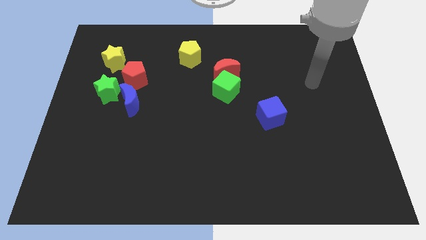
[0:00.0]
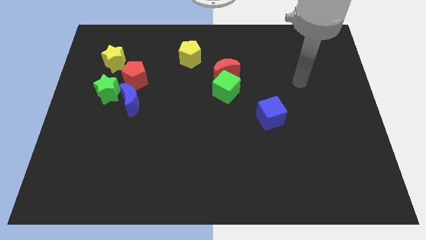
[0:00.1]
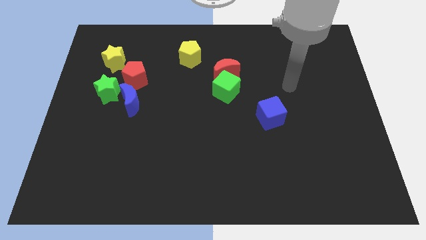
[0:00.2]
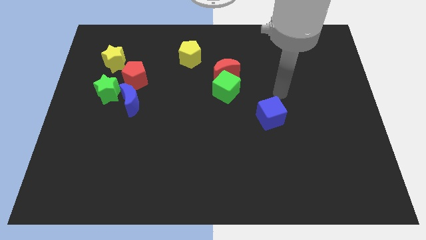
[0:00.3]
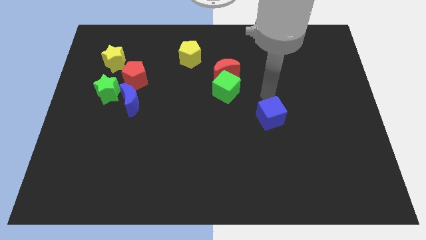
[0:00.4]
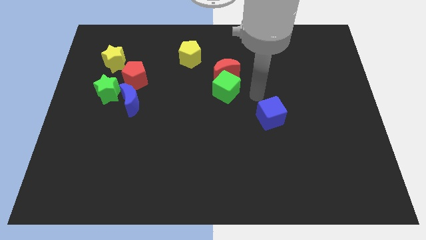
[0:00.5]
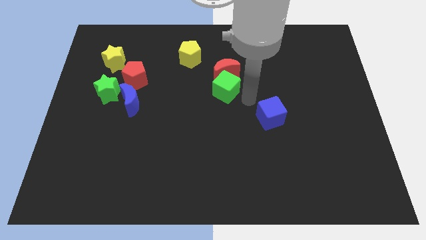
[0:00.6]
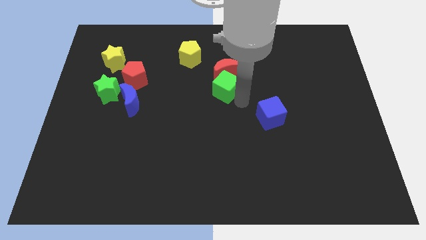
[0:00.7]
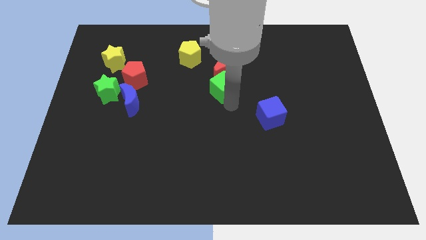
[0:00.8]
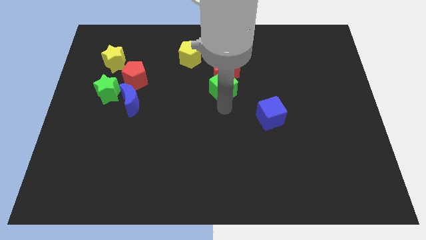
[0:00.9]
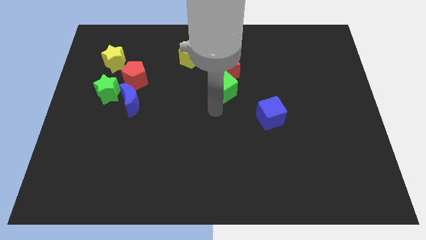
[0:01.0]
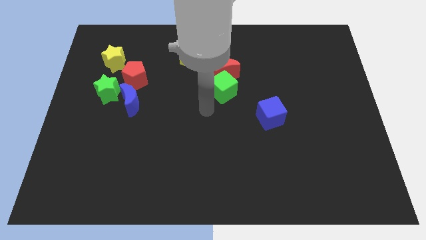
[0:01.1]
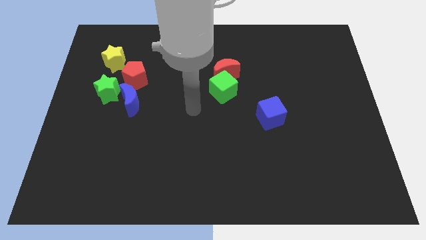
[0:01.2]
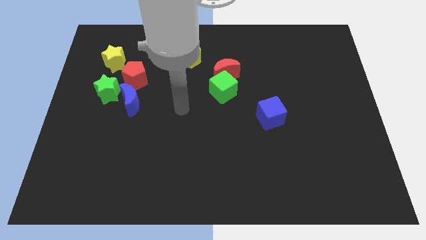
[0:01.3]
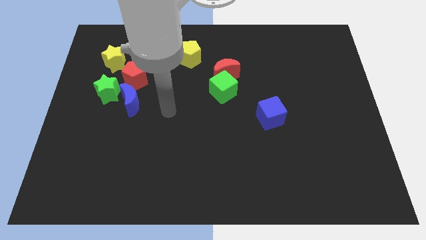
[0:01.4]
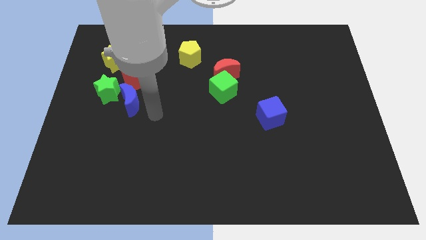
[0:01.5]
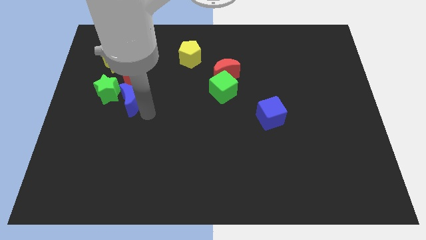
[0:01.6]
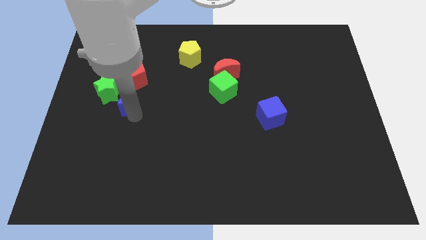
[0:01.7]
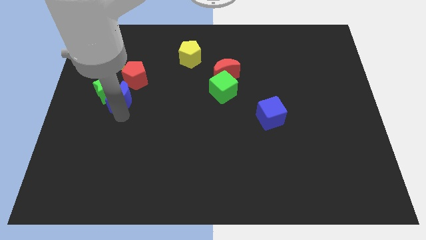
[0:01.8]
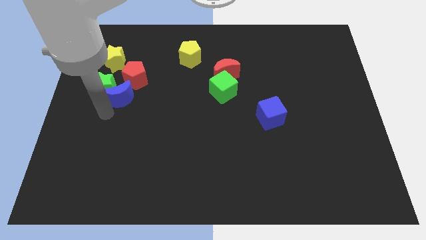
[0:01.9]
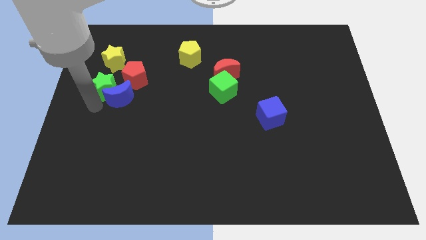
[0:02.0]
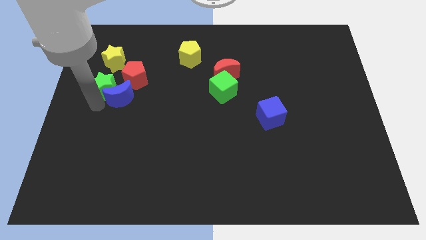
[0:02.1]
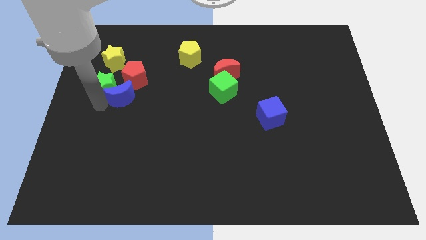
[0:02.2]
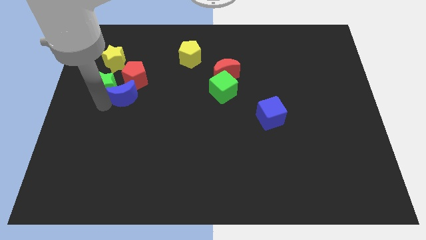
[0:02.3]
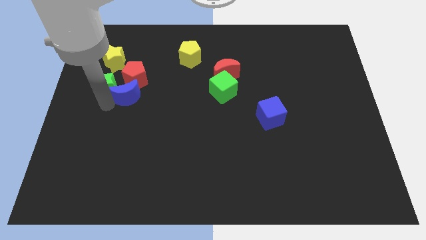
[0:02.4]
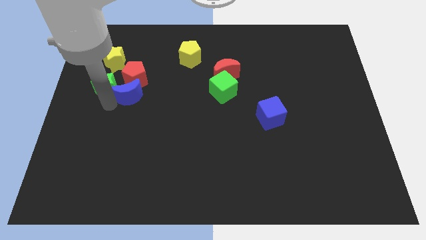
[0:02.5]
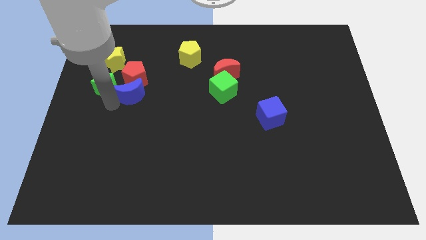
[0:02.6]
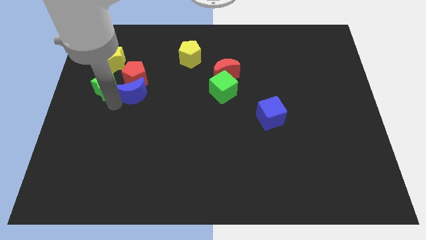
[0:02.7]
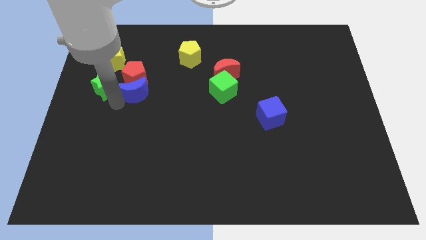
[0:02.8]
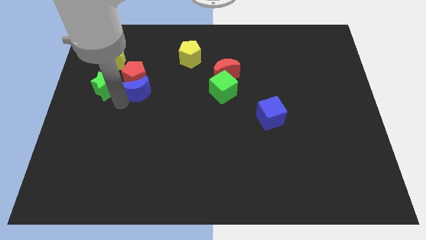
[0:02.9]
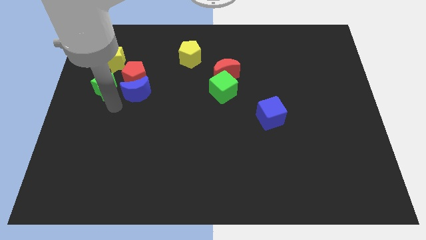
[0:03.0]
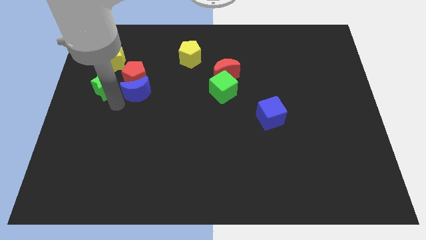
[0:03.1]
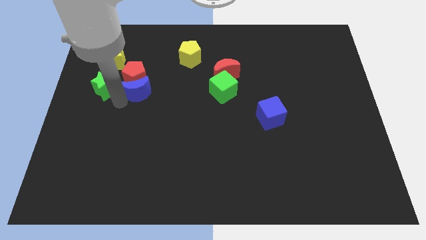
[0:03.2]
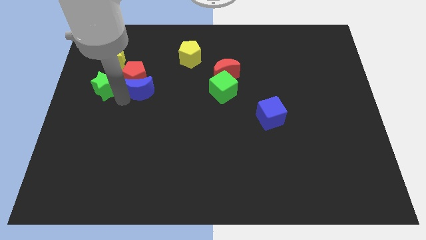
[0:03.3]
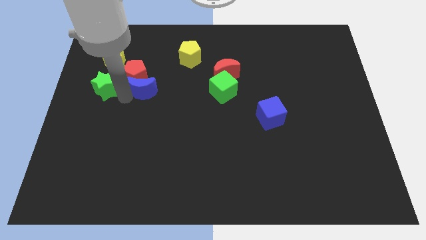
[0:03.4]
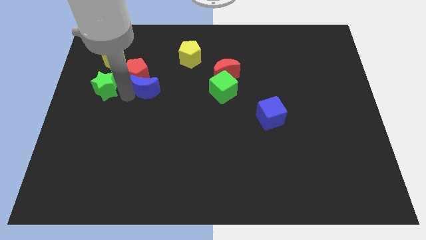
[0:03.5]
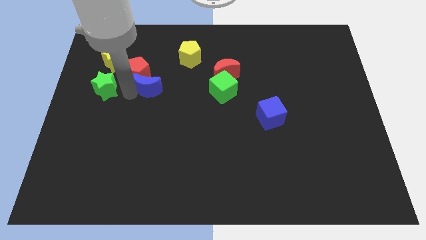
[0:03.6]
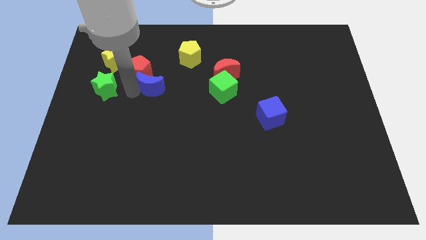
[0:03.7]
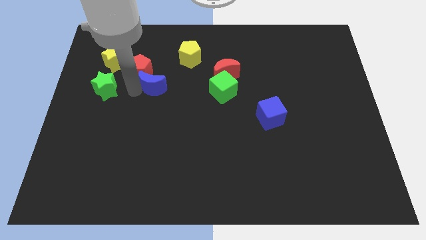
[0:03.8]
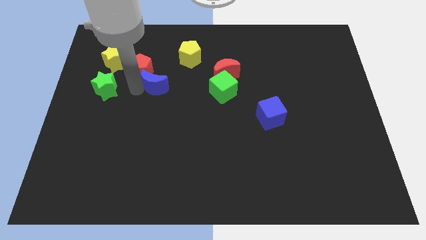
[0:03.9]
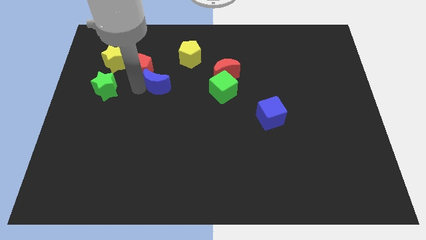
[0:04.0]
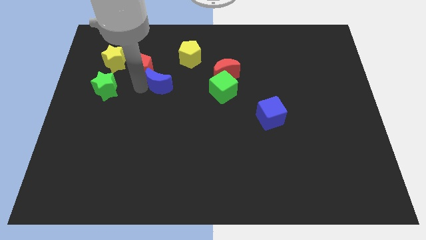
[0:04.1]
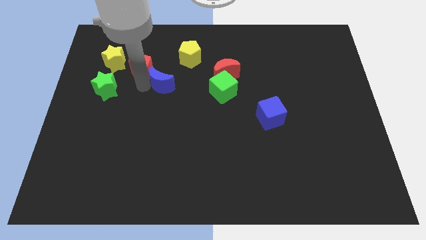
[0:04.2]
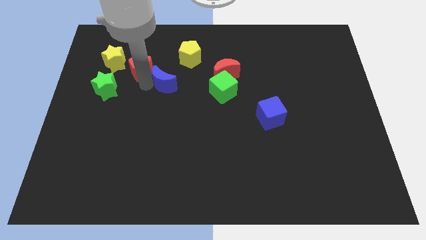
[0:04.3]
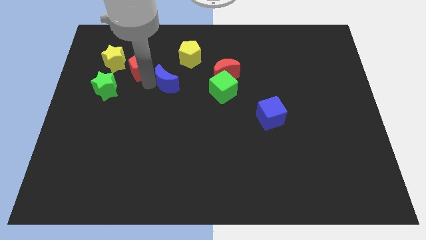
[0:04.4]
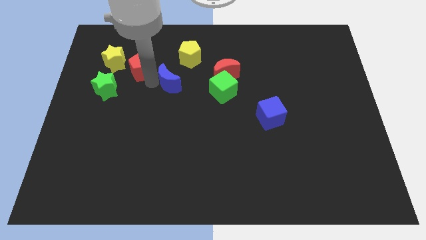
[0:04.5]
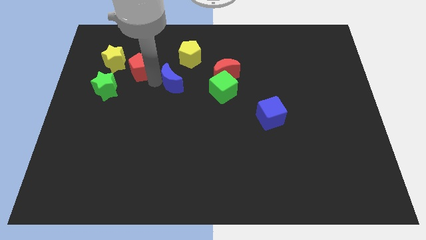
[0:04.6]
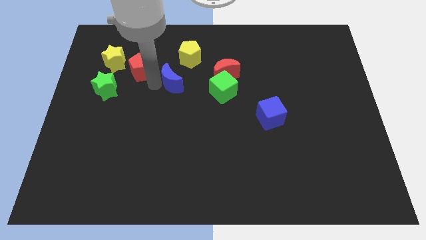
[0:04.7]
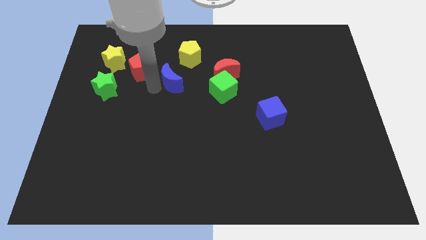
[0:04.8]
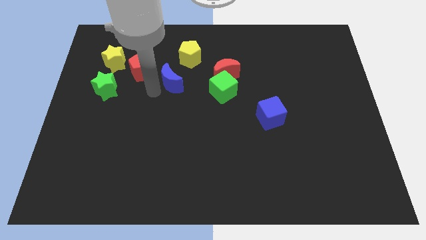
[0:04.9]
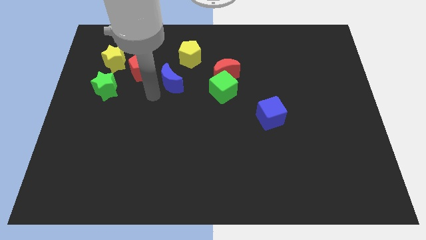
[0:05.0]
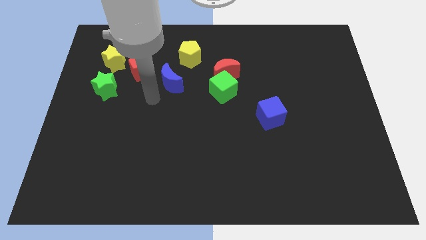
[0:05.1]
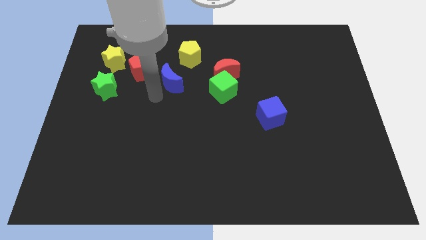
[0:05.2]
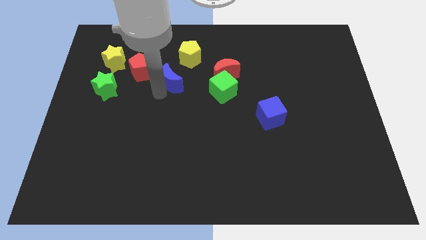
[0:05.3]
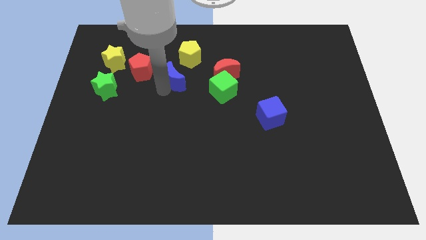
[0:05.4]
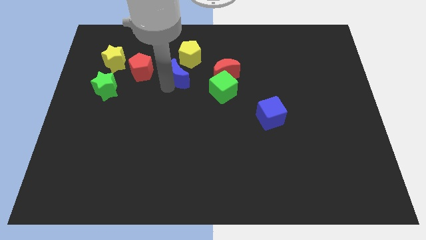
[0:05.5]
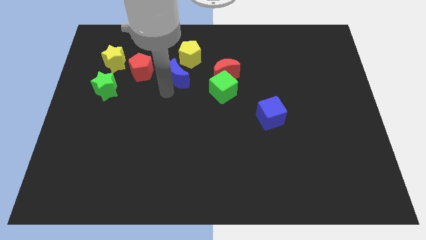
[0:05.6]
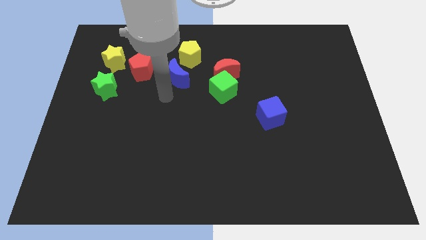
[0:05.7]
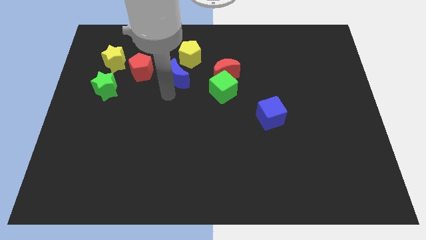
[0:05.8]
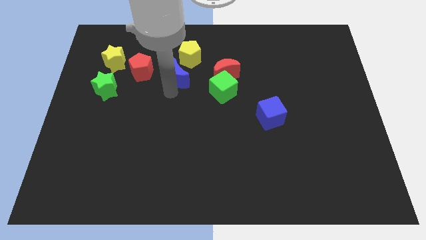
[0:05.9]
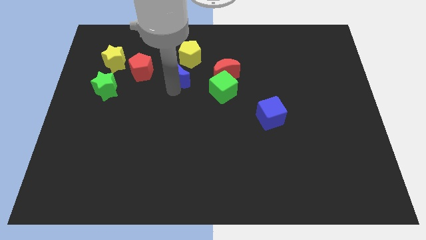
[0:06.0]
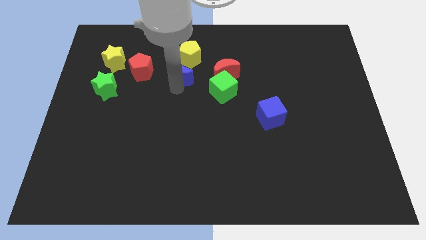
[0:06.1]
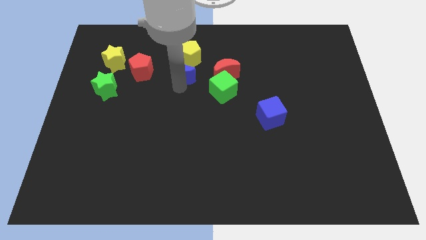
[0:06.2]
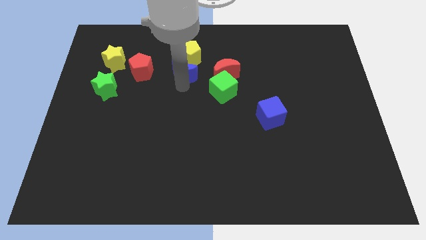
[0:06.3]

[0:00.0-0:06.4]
push the blue moon towards the yellow pentagon
